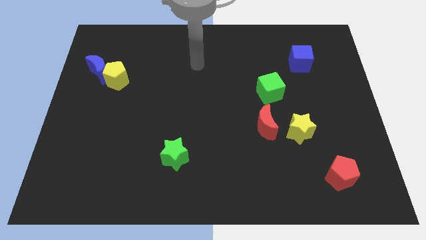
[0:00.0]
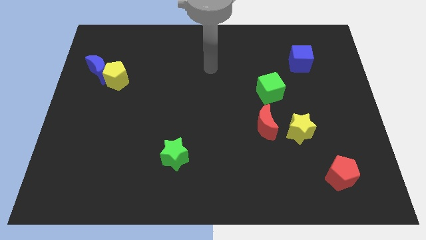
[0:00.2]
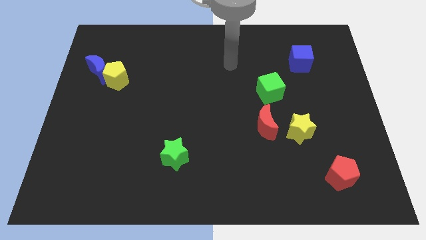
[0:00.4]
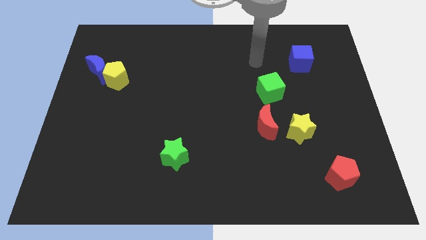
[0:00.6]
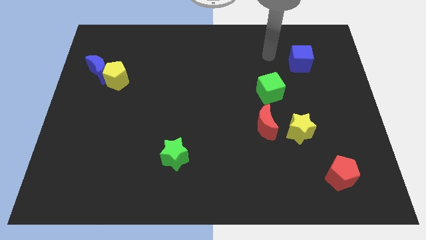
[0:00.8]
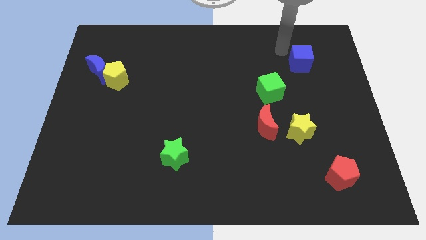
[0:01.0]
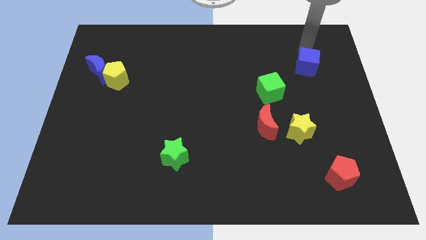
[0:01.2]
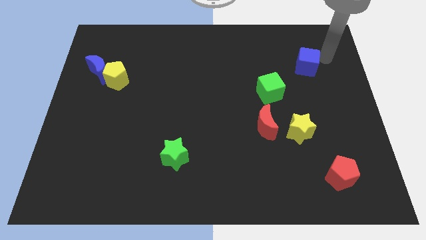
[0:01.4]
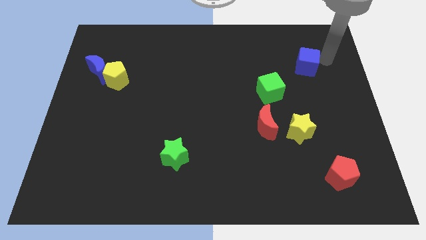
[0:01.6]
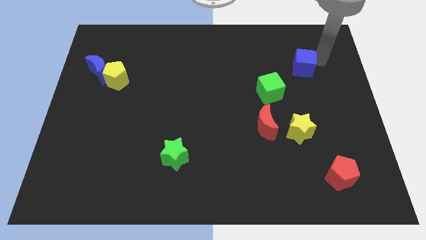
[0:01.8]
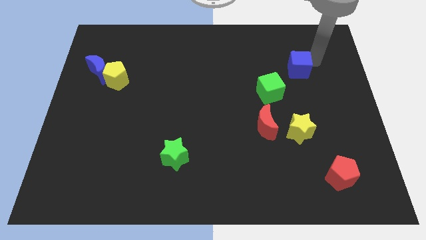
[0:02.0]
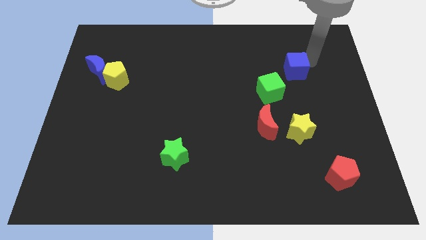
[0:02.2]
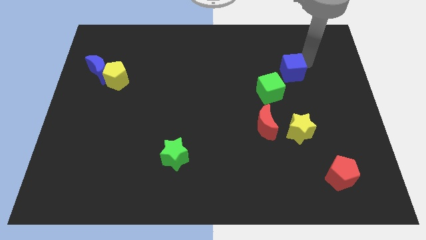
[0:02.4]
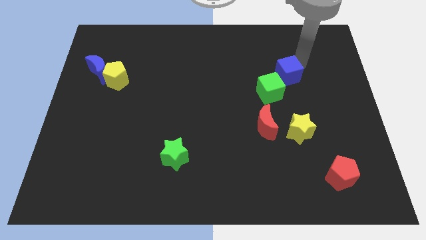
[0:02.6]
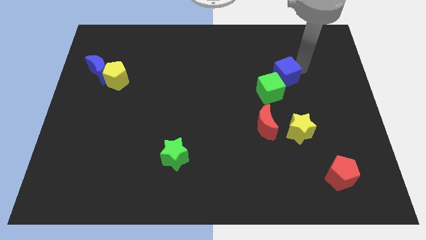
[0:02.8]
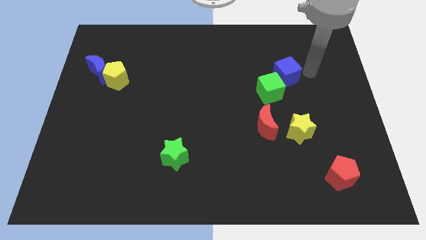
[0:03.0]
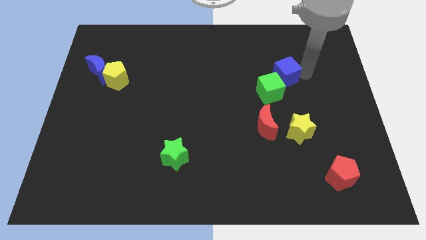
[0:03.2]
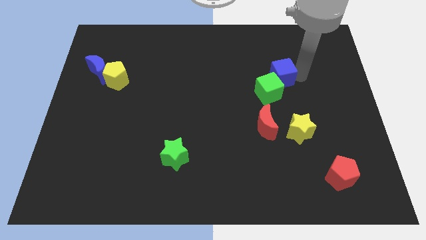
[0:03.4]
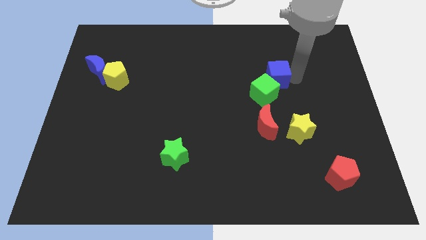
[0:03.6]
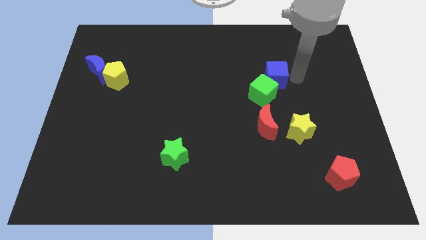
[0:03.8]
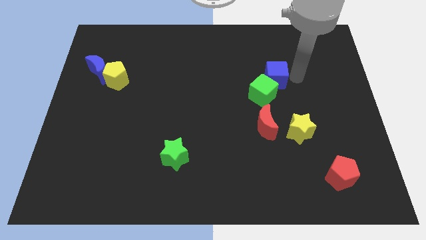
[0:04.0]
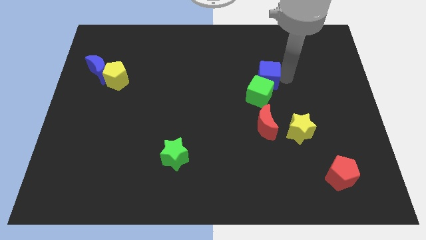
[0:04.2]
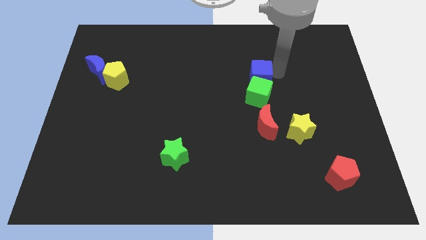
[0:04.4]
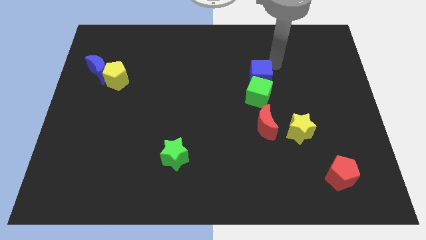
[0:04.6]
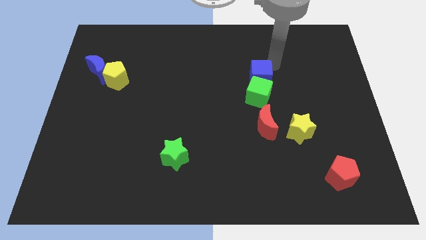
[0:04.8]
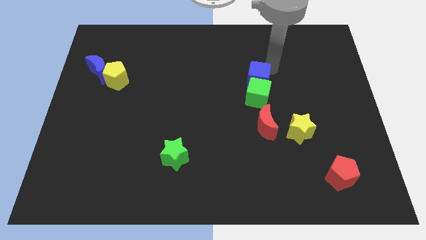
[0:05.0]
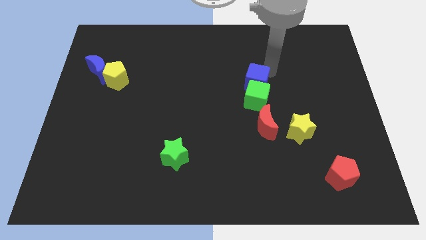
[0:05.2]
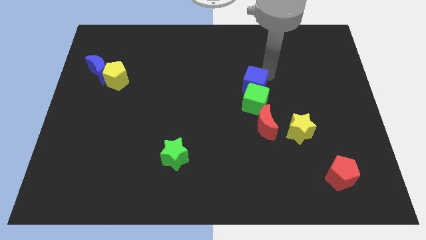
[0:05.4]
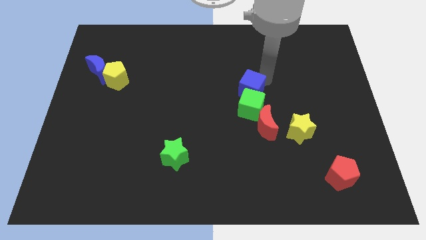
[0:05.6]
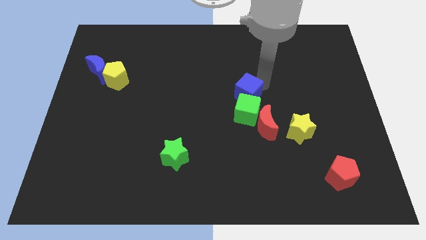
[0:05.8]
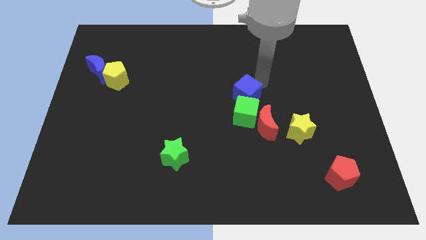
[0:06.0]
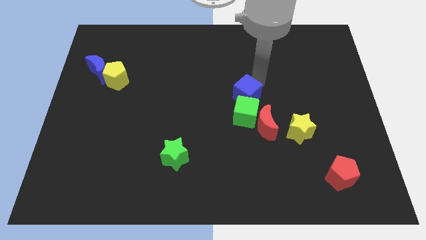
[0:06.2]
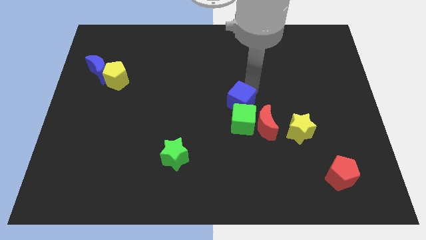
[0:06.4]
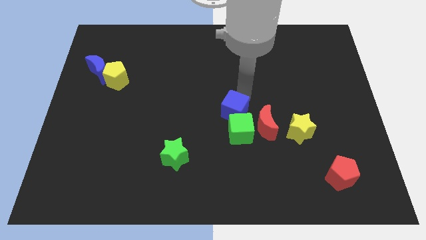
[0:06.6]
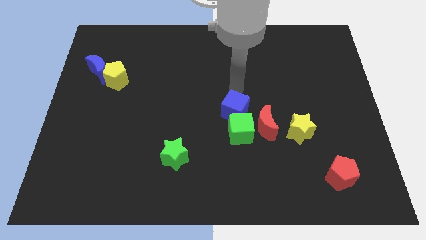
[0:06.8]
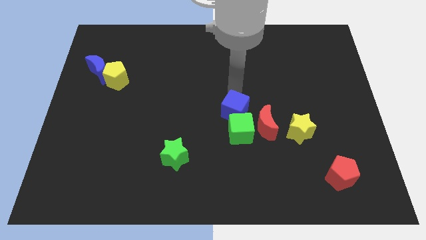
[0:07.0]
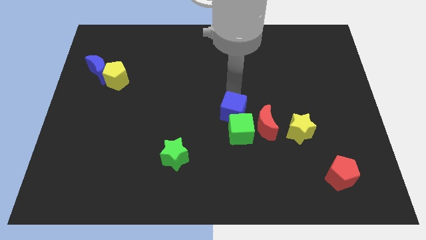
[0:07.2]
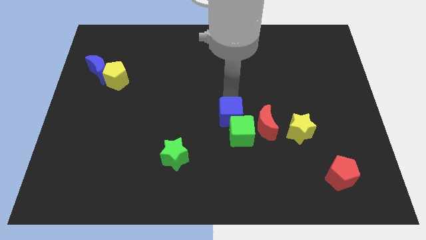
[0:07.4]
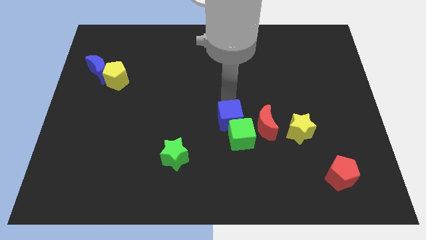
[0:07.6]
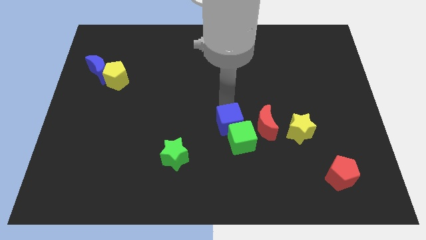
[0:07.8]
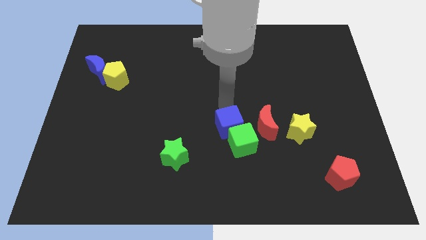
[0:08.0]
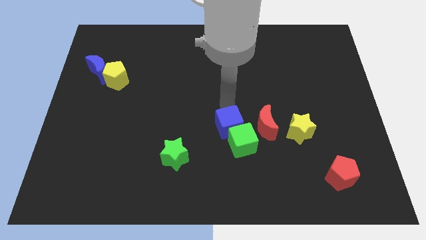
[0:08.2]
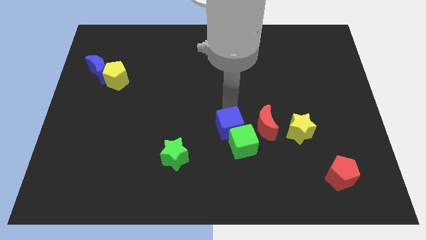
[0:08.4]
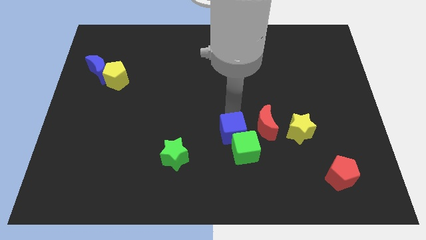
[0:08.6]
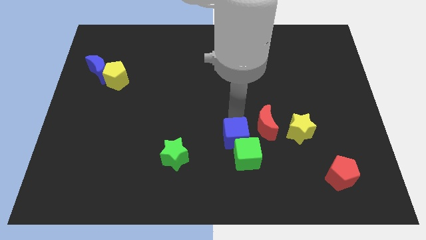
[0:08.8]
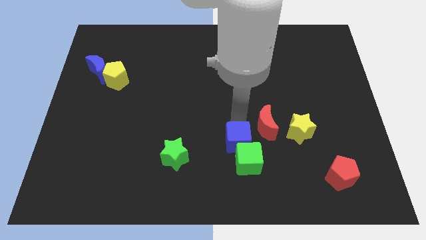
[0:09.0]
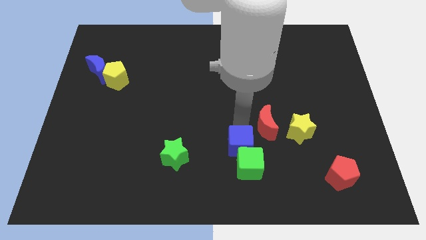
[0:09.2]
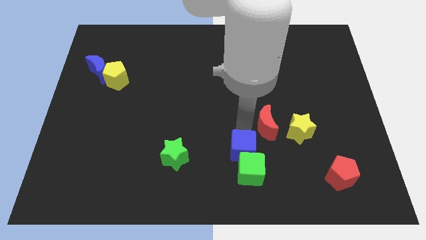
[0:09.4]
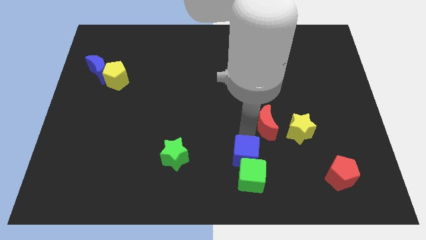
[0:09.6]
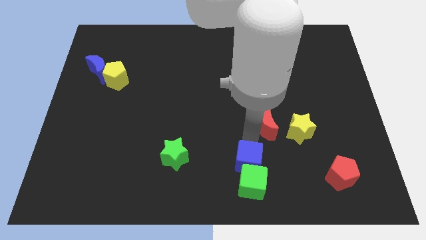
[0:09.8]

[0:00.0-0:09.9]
put the blue cube to the bottom

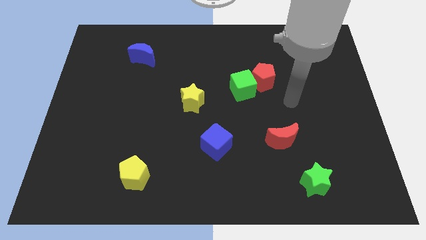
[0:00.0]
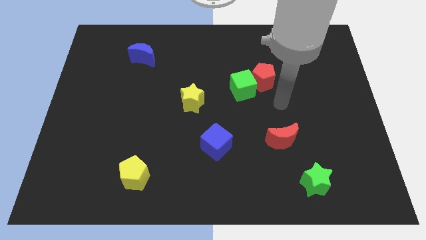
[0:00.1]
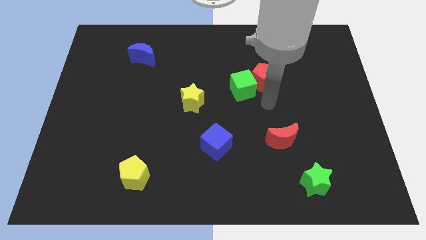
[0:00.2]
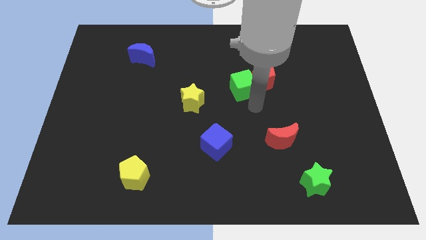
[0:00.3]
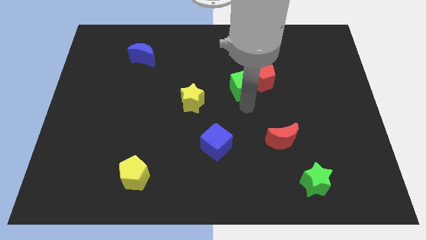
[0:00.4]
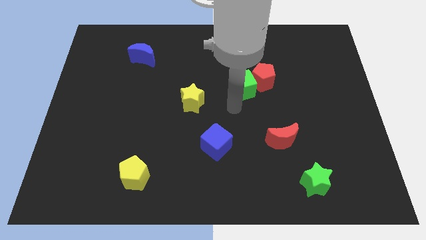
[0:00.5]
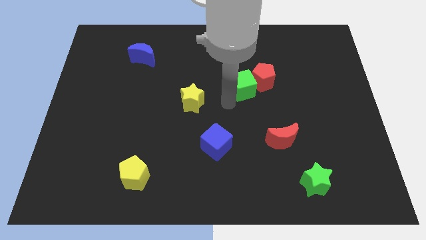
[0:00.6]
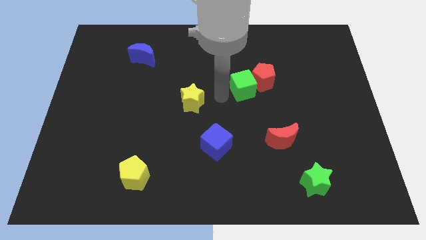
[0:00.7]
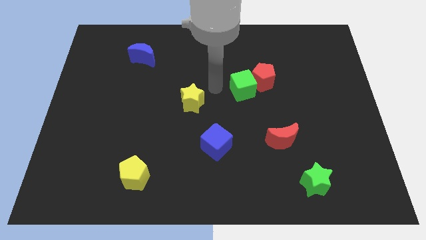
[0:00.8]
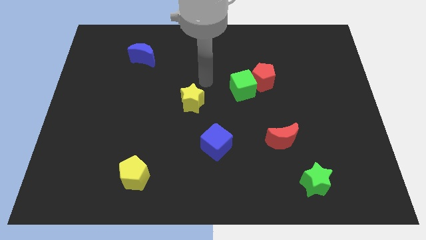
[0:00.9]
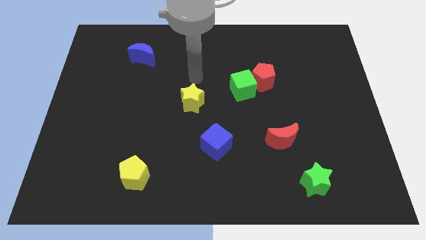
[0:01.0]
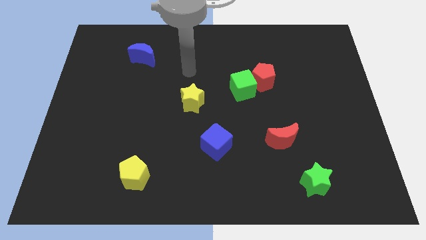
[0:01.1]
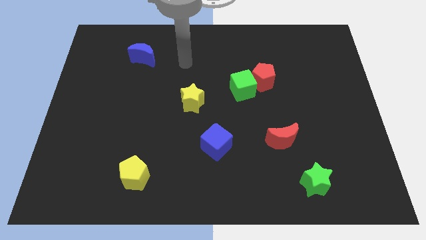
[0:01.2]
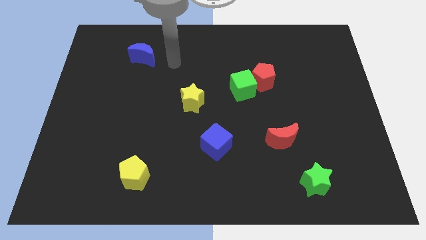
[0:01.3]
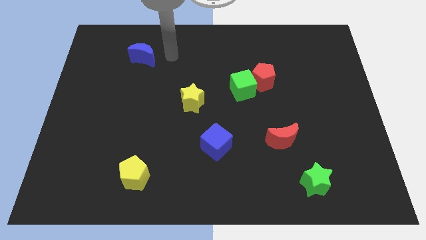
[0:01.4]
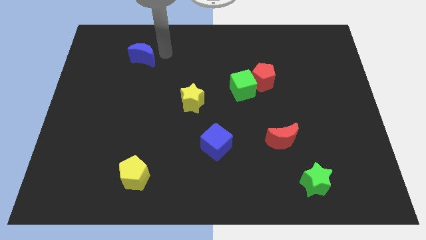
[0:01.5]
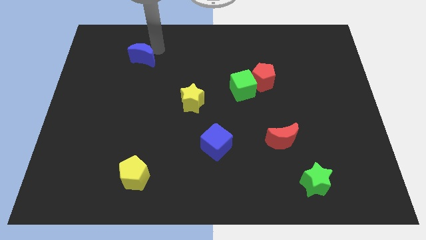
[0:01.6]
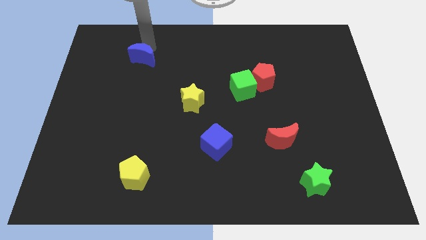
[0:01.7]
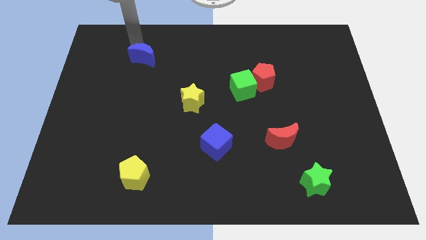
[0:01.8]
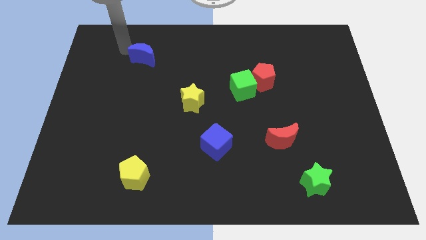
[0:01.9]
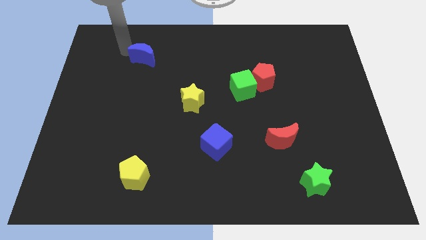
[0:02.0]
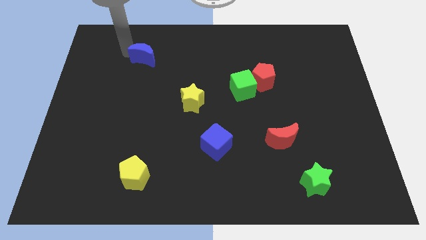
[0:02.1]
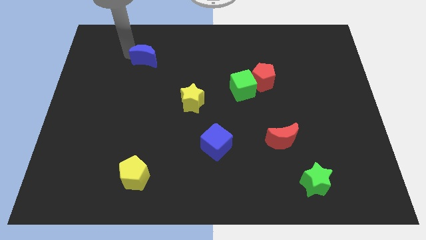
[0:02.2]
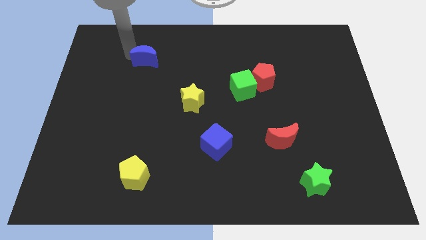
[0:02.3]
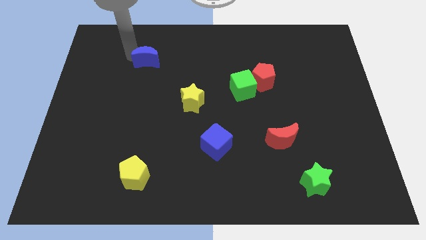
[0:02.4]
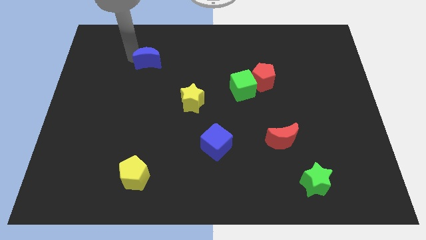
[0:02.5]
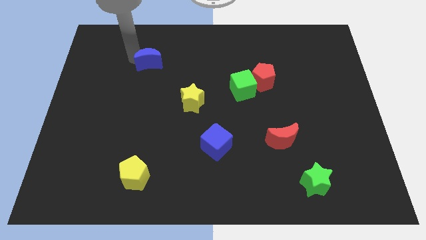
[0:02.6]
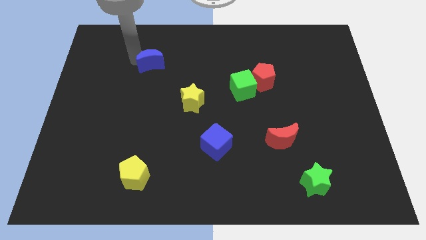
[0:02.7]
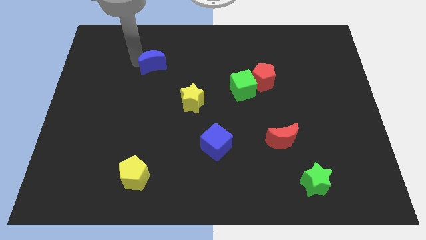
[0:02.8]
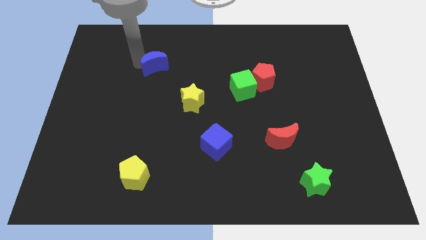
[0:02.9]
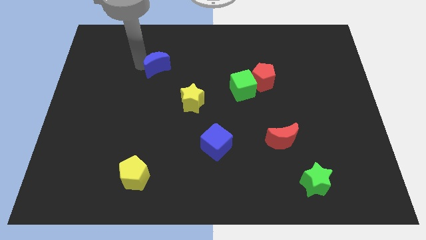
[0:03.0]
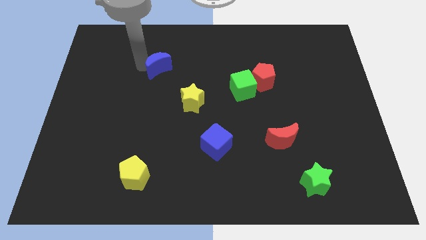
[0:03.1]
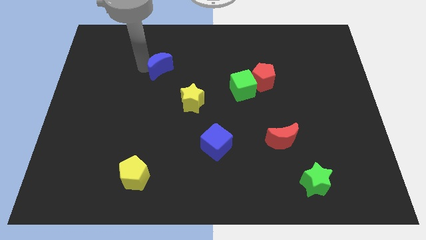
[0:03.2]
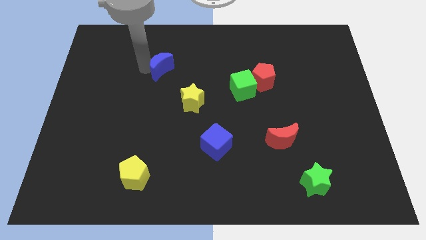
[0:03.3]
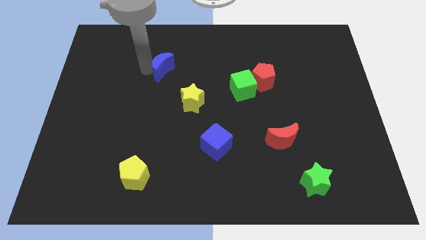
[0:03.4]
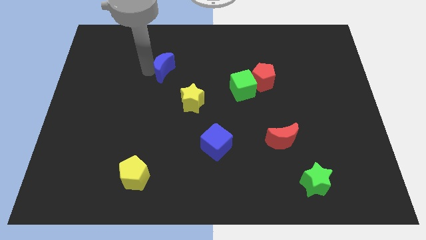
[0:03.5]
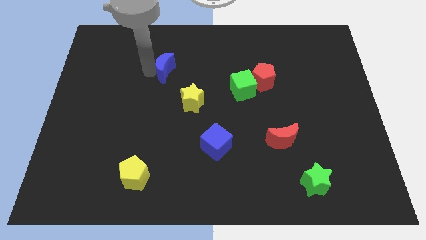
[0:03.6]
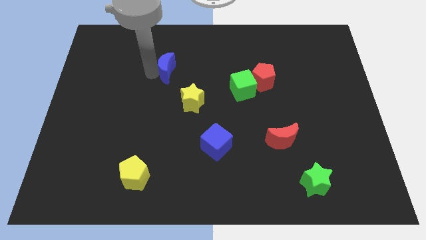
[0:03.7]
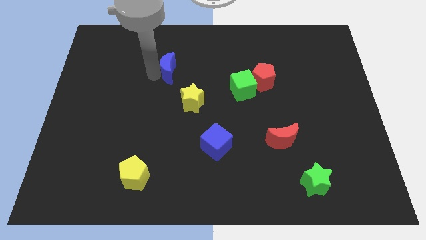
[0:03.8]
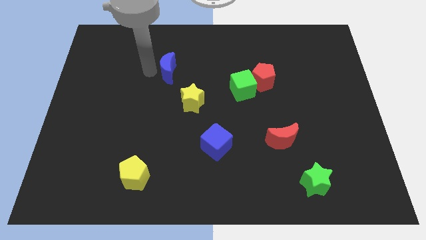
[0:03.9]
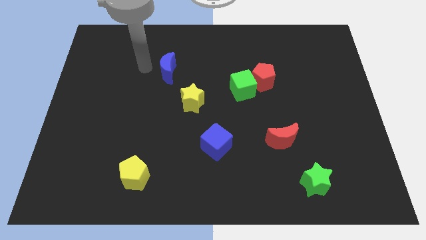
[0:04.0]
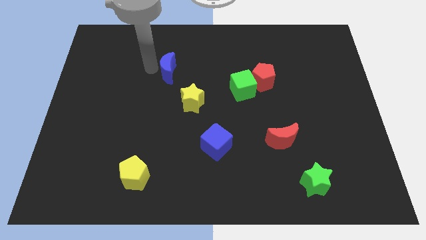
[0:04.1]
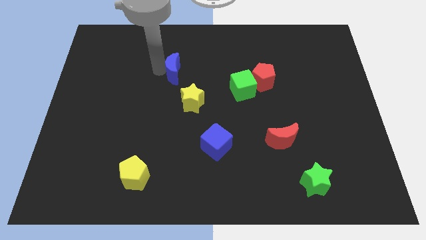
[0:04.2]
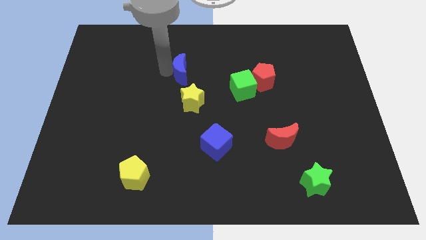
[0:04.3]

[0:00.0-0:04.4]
slide the blue moon to the center of the board
